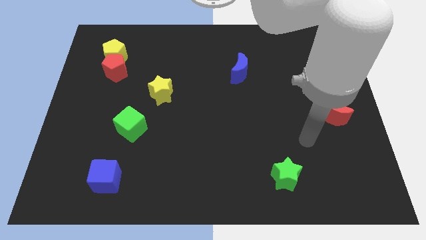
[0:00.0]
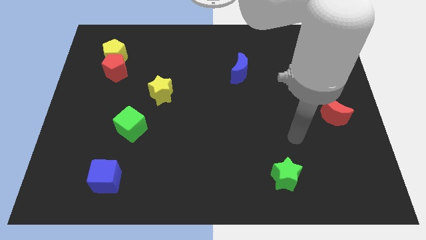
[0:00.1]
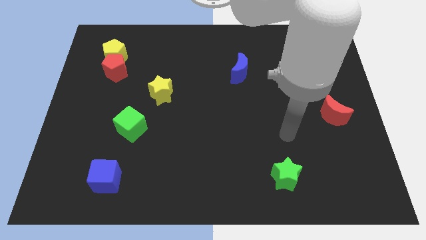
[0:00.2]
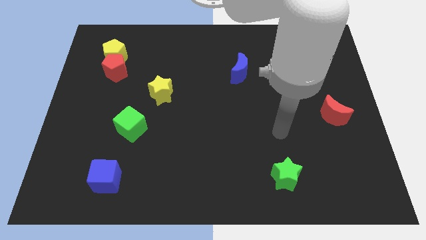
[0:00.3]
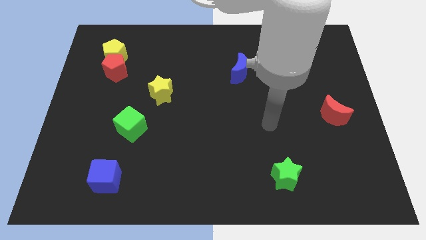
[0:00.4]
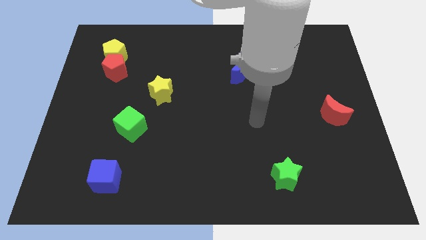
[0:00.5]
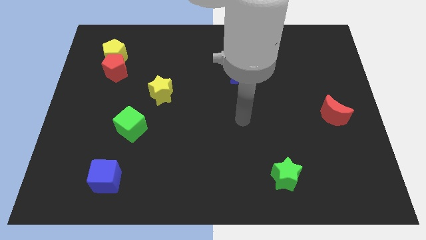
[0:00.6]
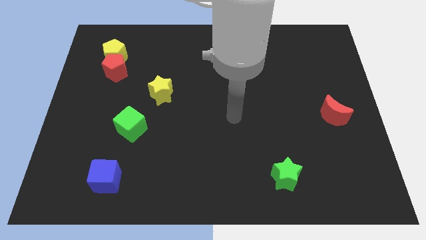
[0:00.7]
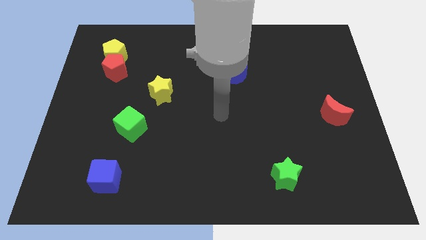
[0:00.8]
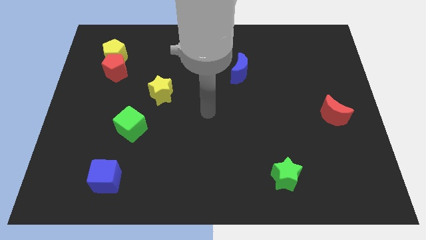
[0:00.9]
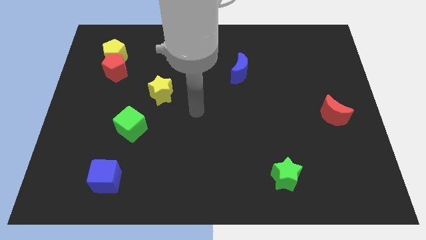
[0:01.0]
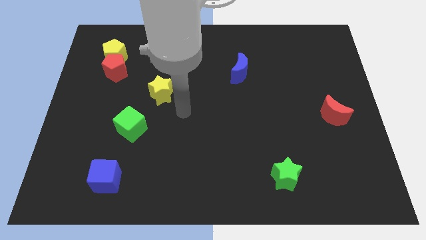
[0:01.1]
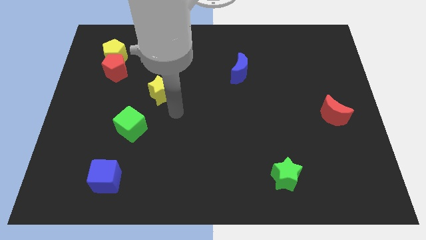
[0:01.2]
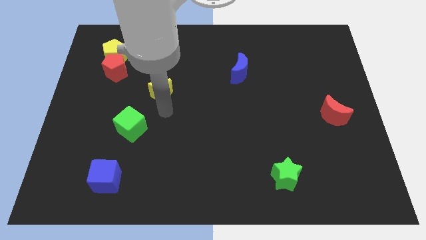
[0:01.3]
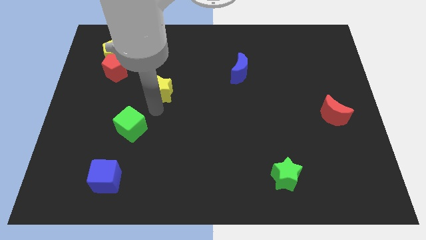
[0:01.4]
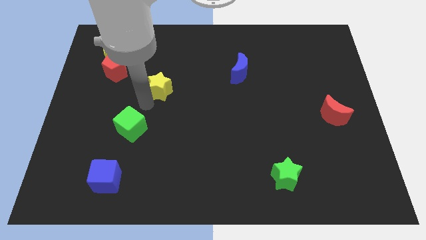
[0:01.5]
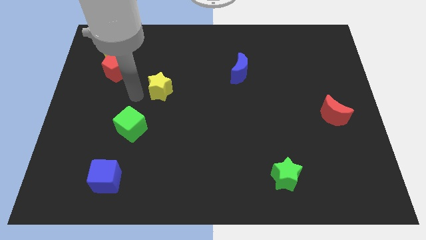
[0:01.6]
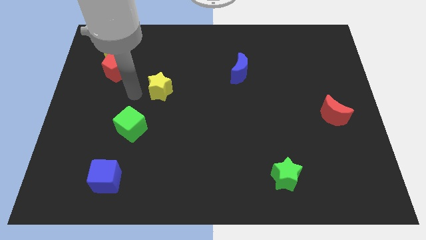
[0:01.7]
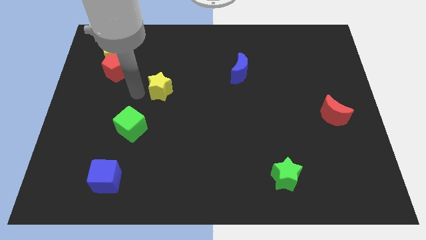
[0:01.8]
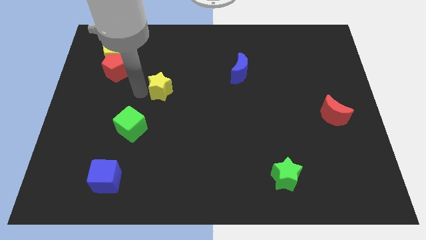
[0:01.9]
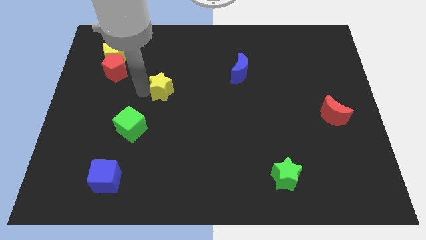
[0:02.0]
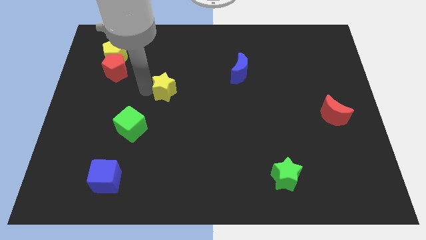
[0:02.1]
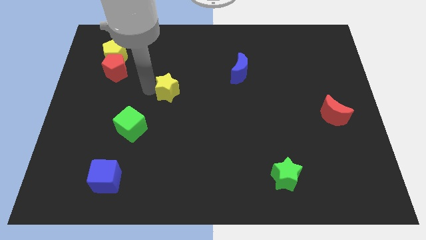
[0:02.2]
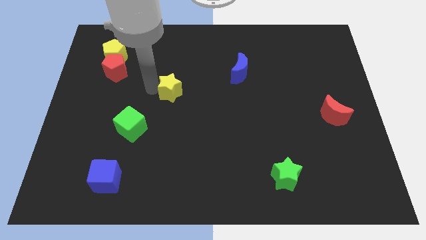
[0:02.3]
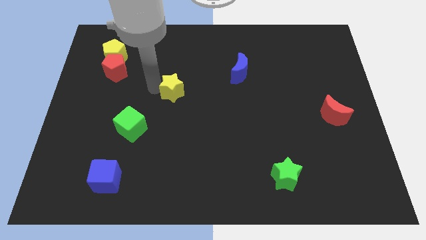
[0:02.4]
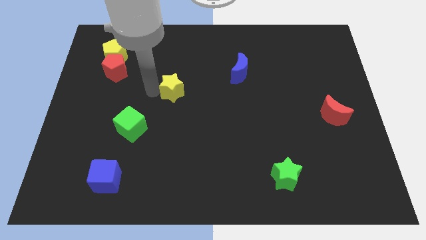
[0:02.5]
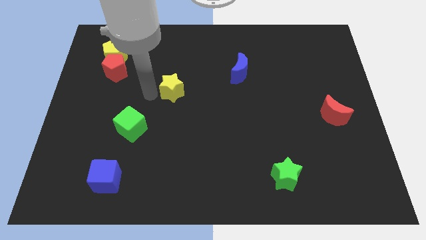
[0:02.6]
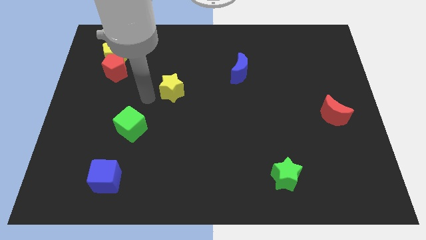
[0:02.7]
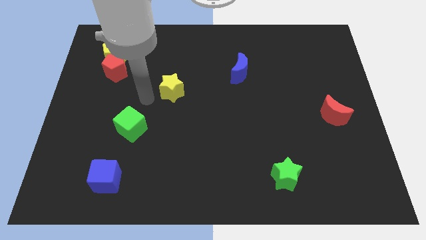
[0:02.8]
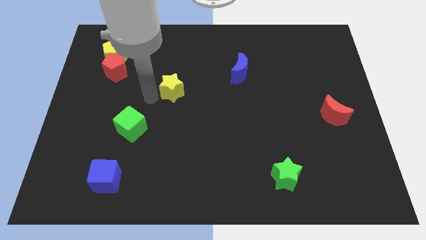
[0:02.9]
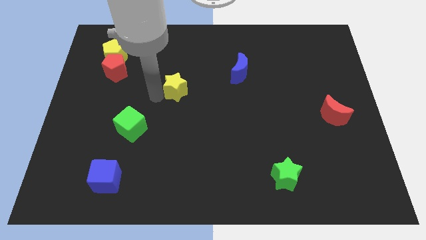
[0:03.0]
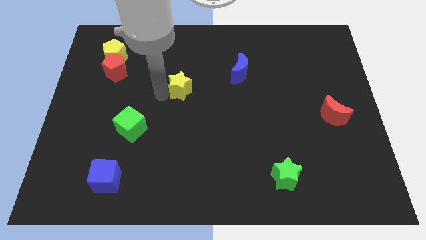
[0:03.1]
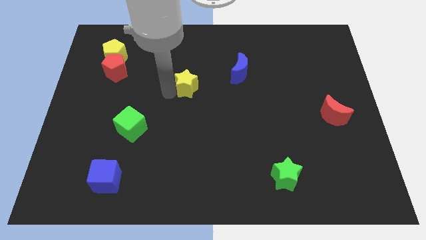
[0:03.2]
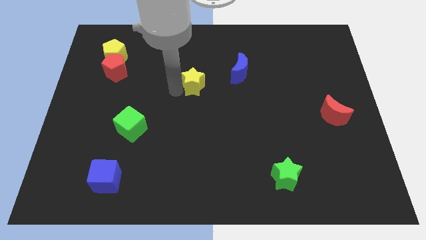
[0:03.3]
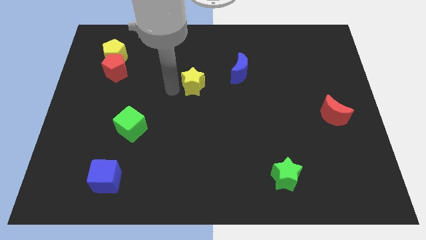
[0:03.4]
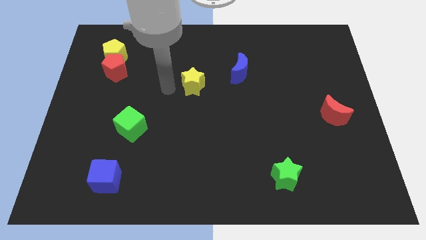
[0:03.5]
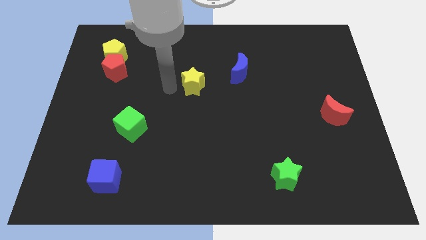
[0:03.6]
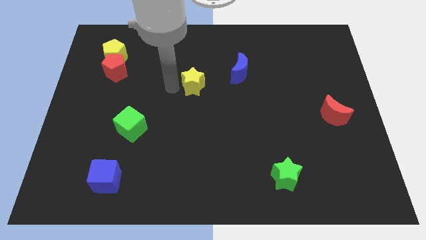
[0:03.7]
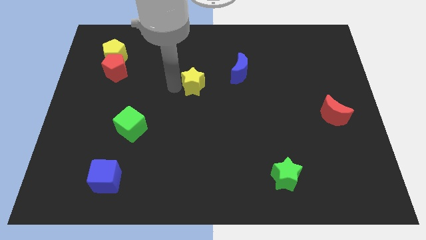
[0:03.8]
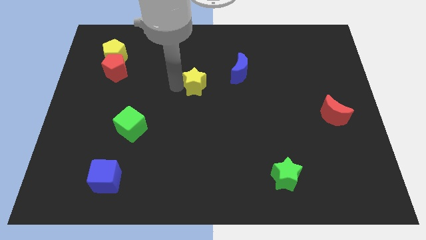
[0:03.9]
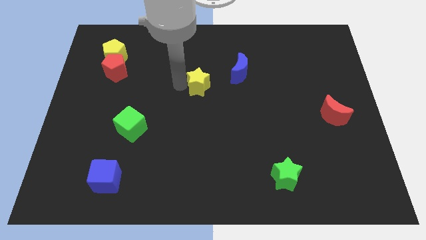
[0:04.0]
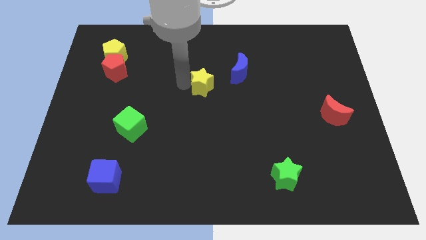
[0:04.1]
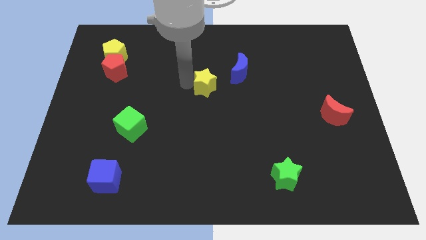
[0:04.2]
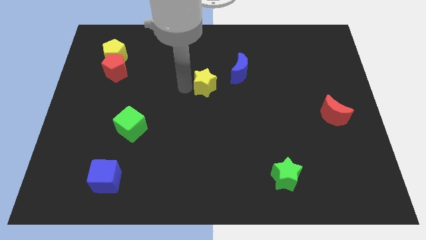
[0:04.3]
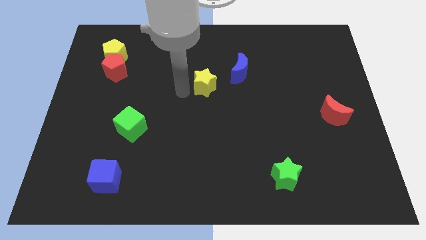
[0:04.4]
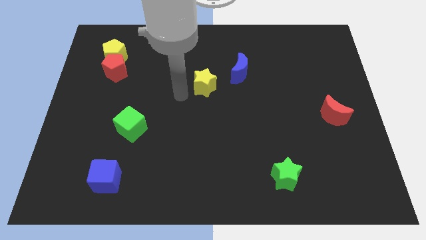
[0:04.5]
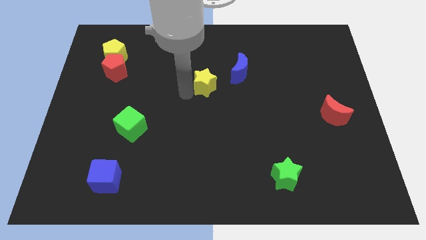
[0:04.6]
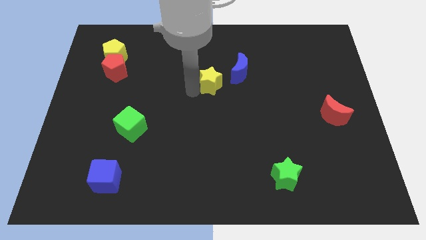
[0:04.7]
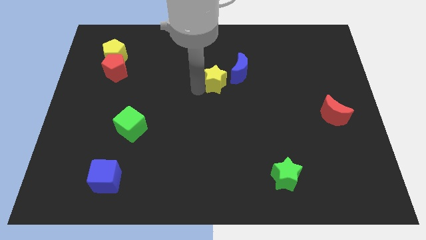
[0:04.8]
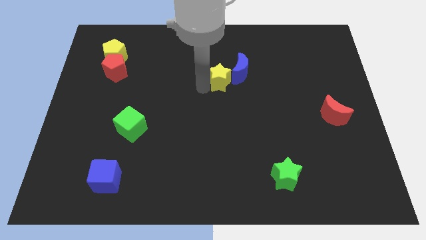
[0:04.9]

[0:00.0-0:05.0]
slide the yellow star next to the blue moon

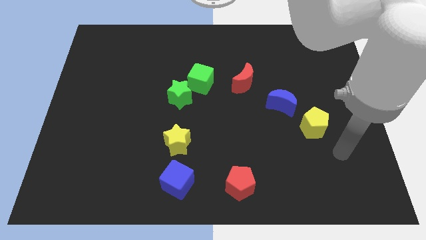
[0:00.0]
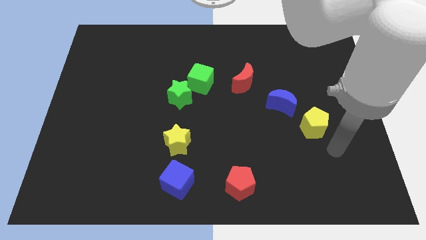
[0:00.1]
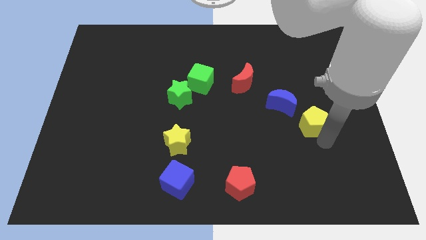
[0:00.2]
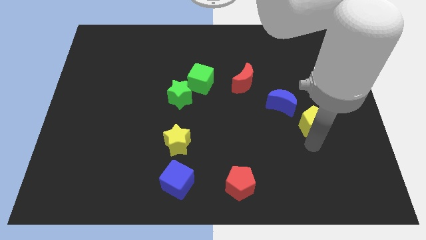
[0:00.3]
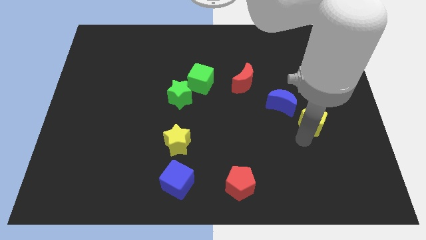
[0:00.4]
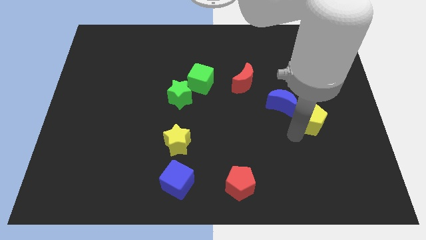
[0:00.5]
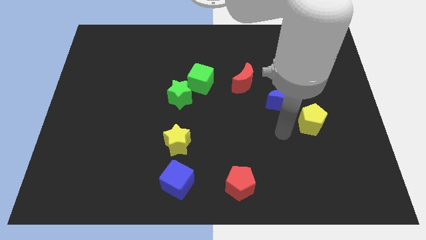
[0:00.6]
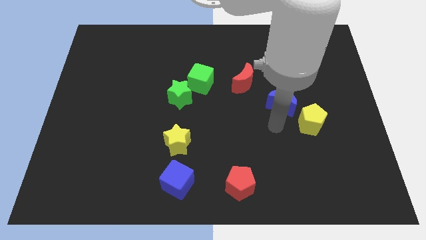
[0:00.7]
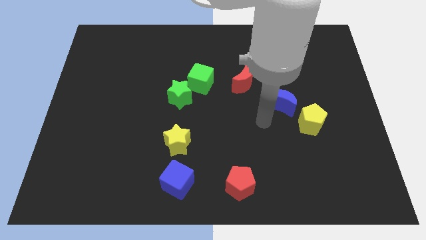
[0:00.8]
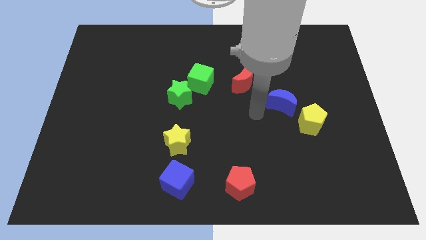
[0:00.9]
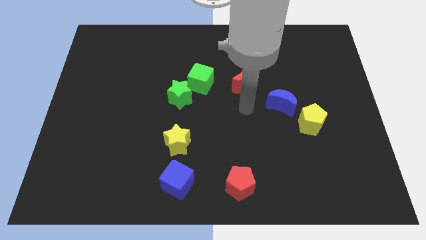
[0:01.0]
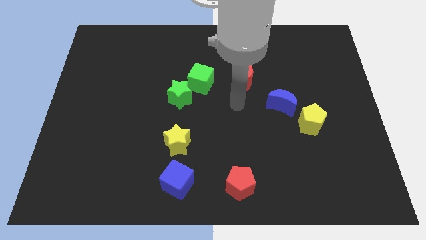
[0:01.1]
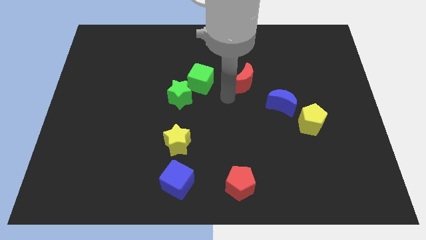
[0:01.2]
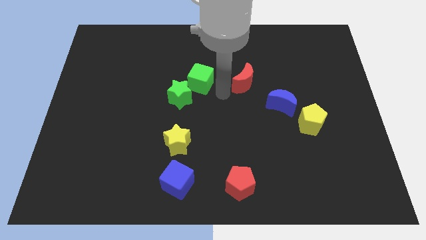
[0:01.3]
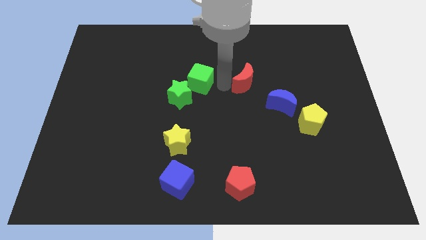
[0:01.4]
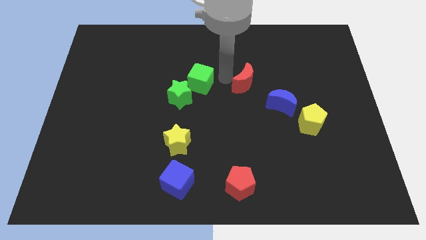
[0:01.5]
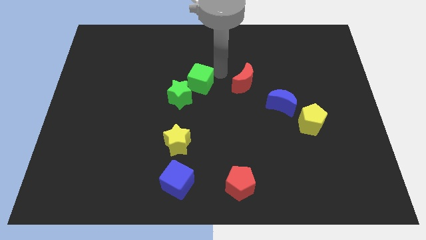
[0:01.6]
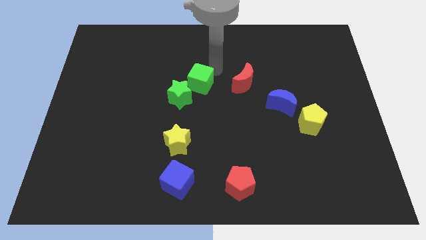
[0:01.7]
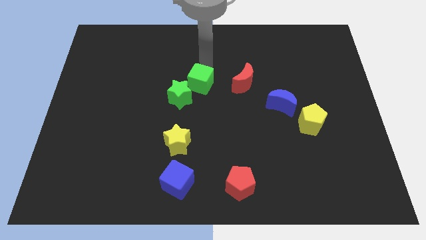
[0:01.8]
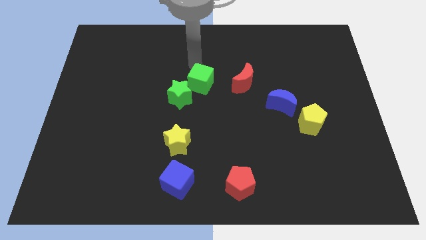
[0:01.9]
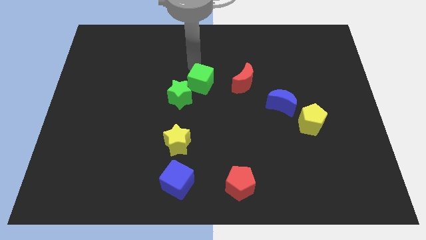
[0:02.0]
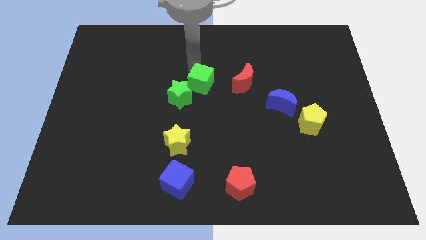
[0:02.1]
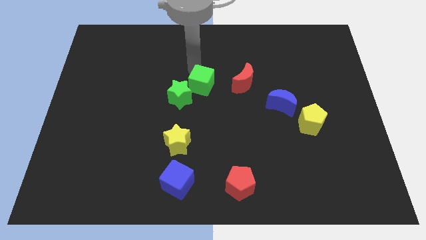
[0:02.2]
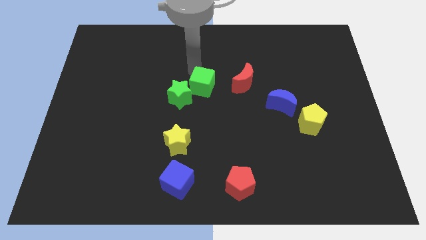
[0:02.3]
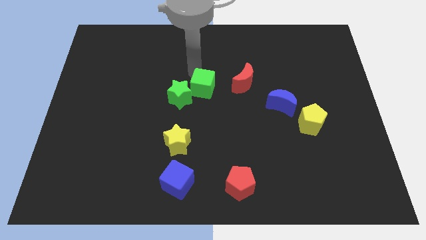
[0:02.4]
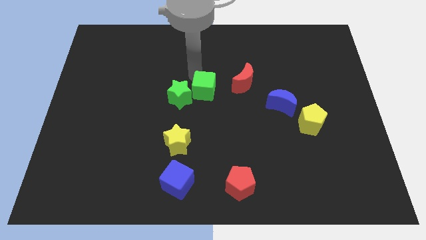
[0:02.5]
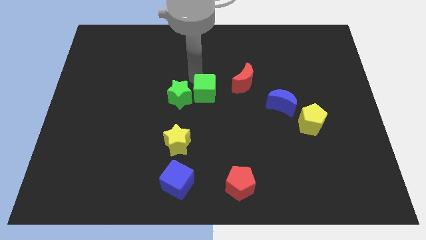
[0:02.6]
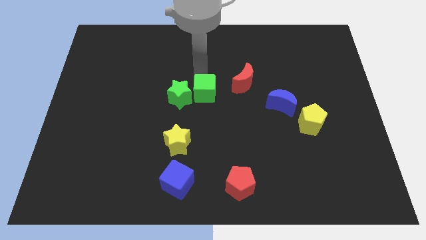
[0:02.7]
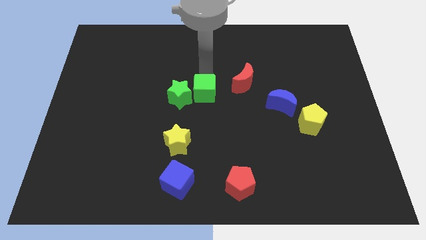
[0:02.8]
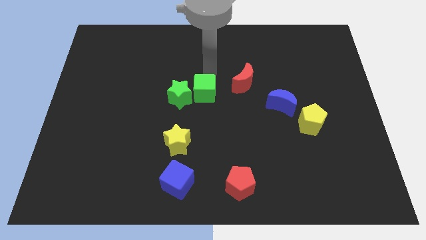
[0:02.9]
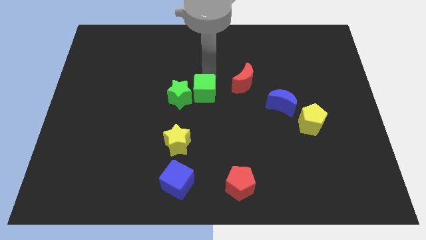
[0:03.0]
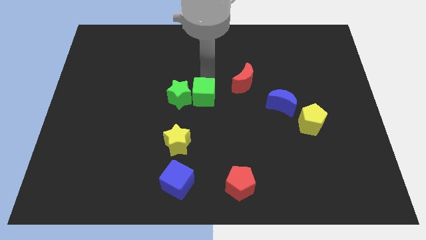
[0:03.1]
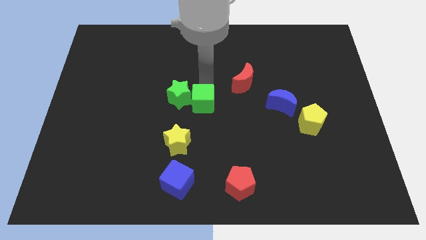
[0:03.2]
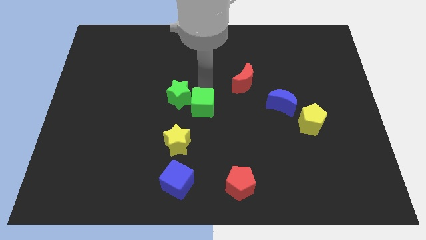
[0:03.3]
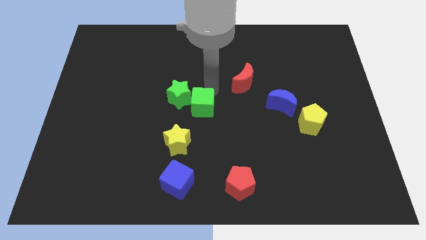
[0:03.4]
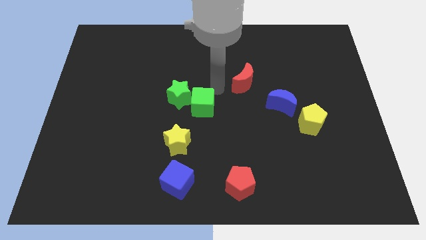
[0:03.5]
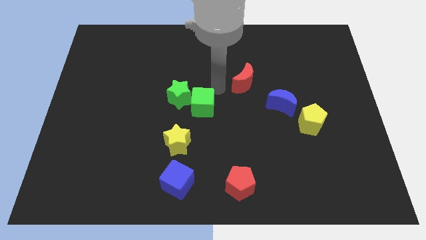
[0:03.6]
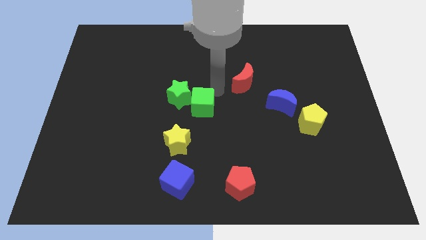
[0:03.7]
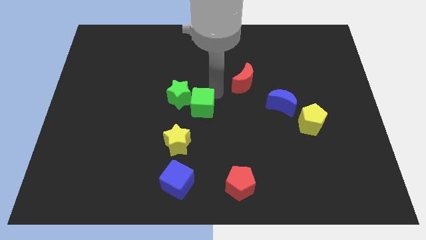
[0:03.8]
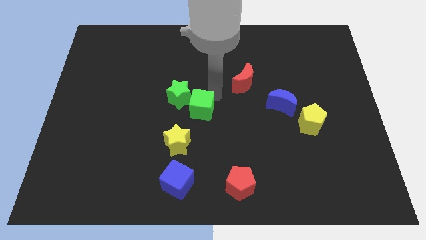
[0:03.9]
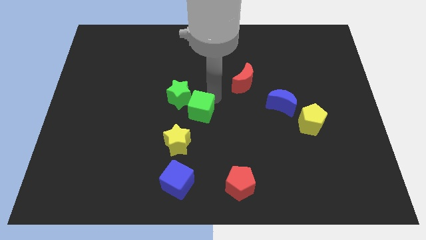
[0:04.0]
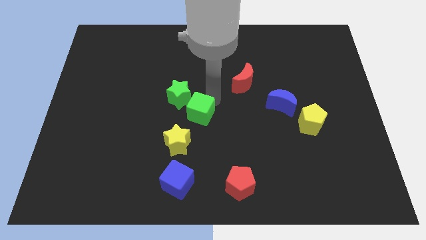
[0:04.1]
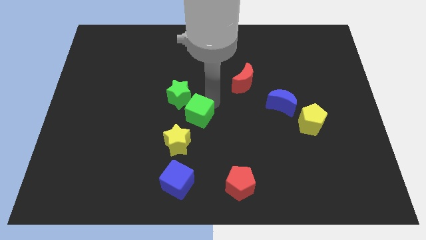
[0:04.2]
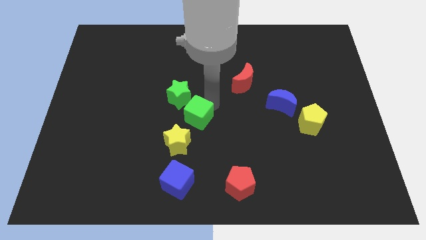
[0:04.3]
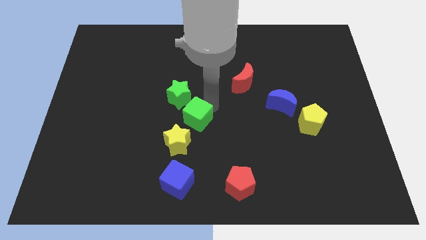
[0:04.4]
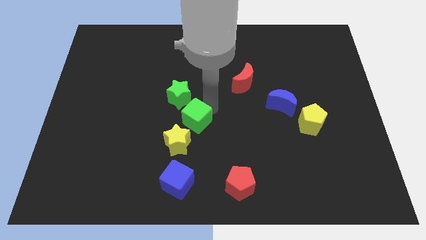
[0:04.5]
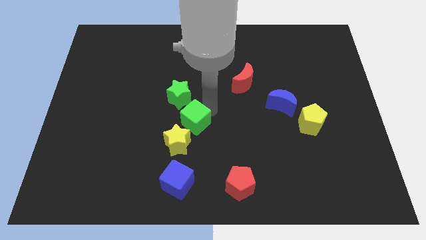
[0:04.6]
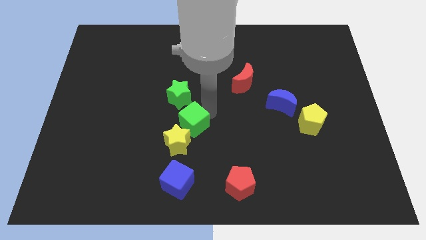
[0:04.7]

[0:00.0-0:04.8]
slide the green cube close to the yellow star
